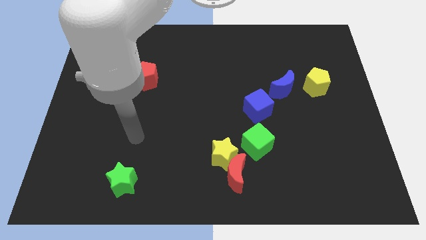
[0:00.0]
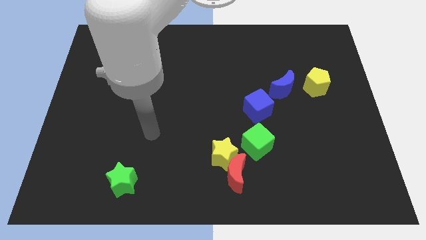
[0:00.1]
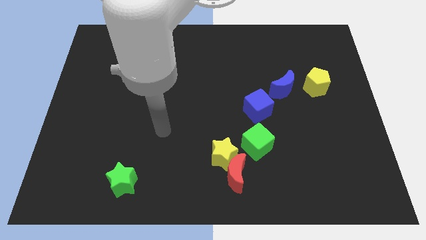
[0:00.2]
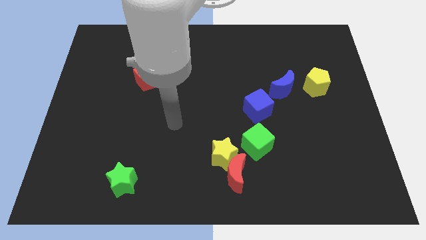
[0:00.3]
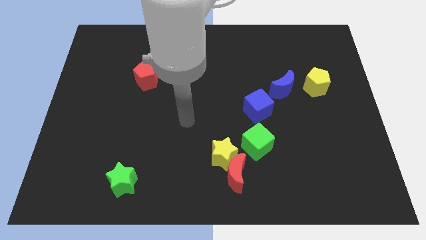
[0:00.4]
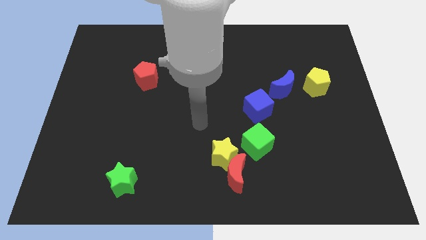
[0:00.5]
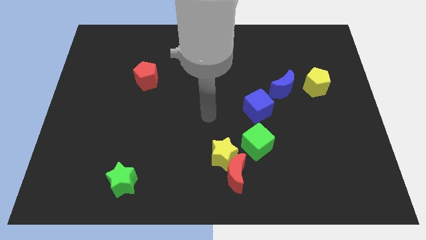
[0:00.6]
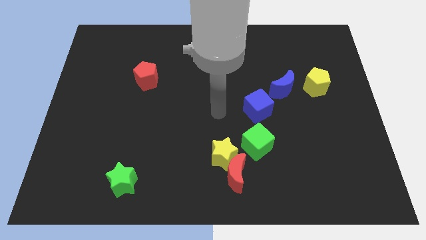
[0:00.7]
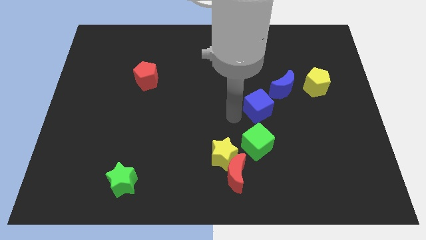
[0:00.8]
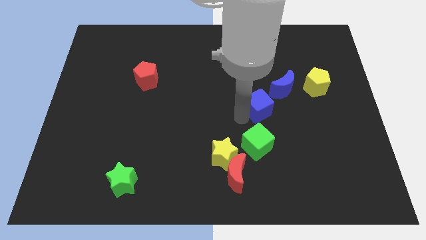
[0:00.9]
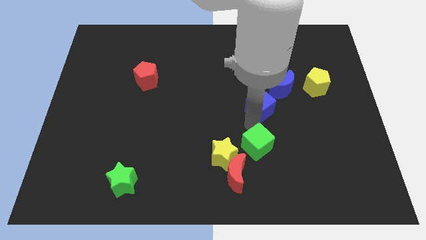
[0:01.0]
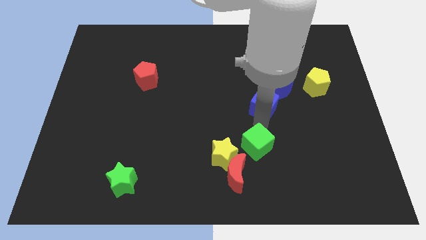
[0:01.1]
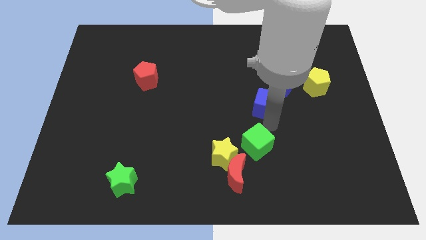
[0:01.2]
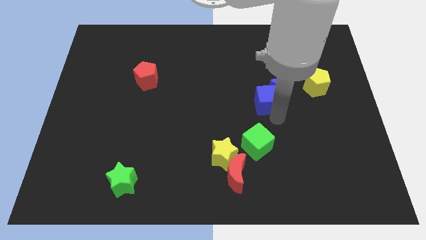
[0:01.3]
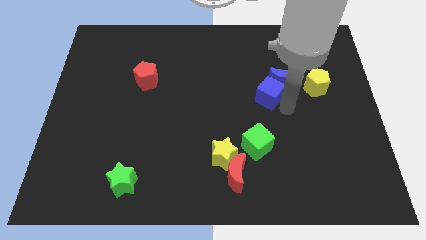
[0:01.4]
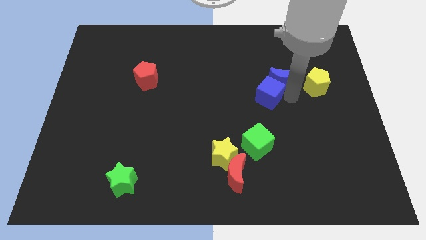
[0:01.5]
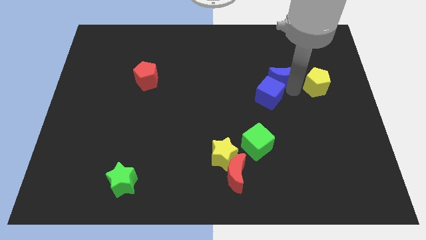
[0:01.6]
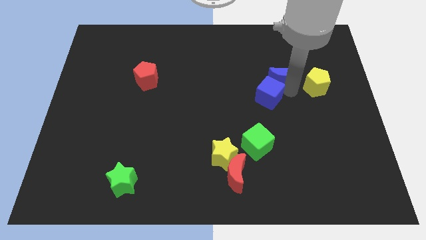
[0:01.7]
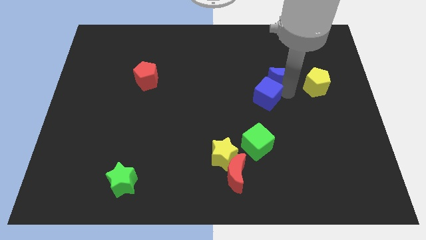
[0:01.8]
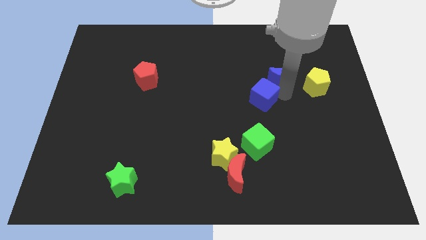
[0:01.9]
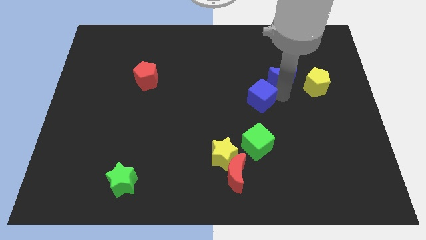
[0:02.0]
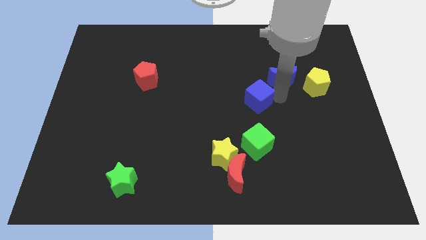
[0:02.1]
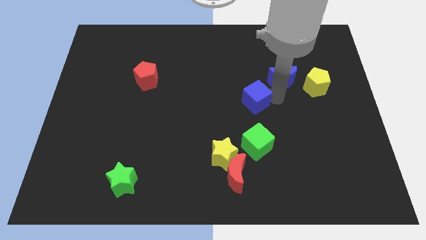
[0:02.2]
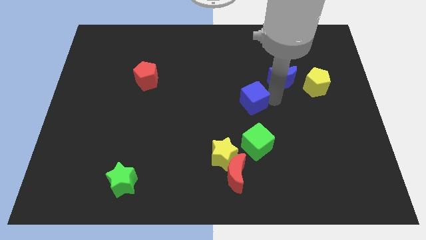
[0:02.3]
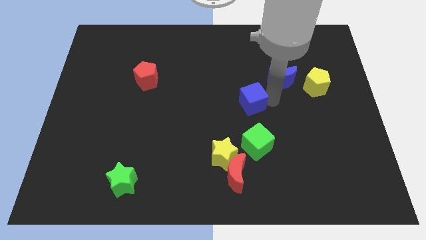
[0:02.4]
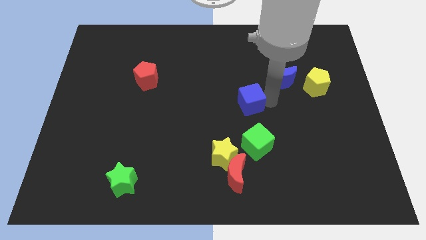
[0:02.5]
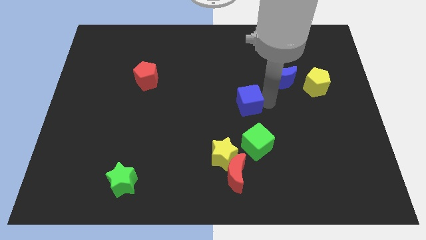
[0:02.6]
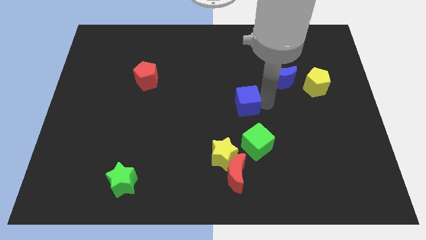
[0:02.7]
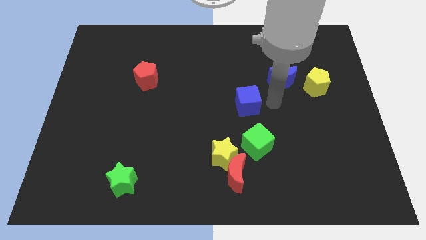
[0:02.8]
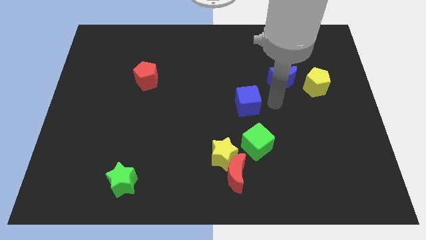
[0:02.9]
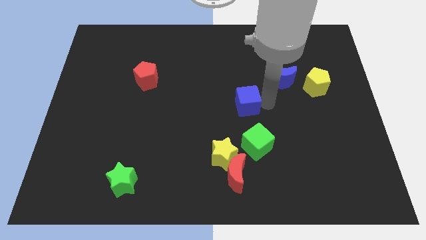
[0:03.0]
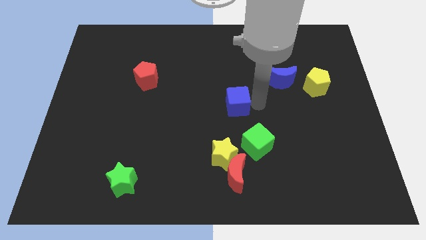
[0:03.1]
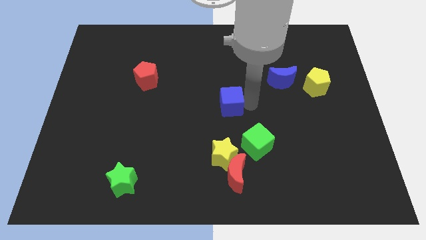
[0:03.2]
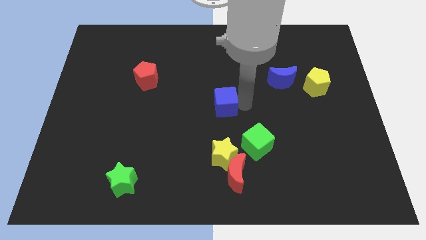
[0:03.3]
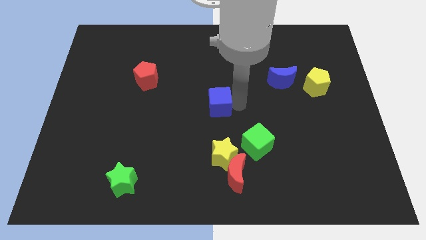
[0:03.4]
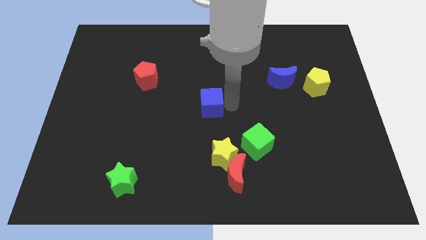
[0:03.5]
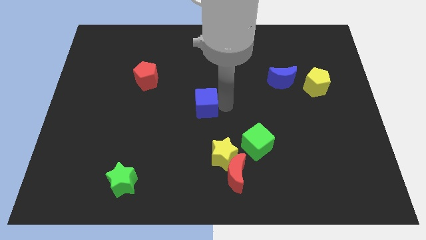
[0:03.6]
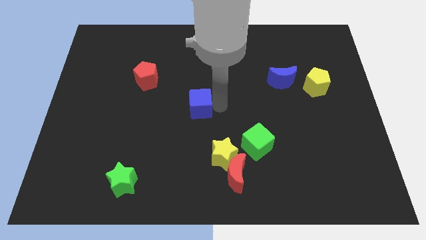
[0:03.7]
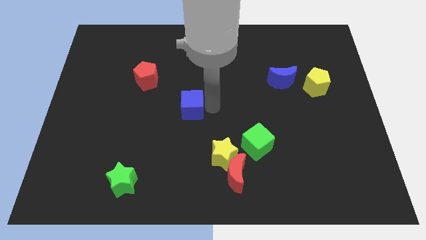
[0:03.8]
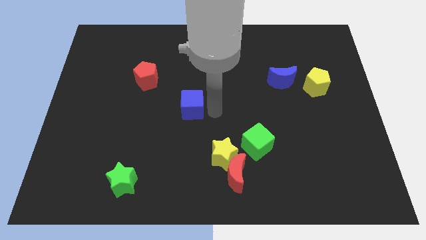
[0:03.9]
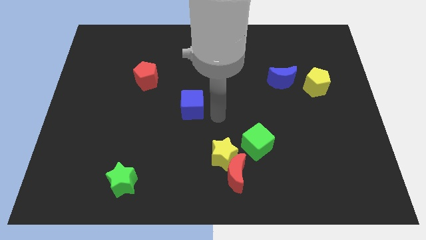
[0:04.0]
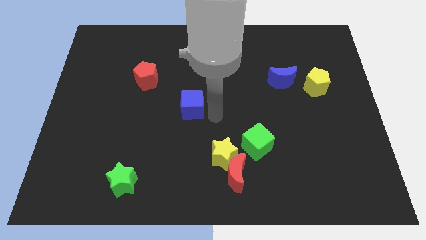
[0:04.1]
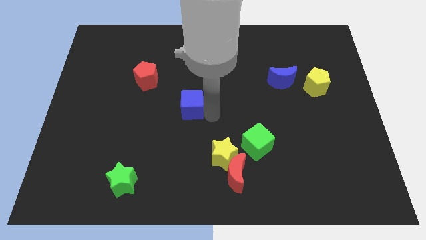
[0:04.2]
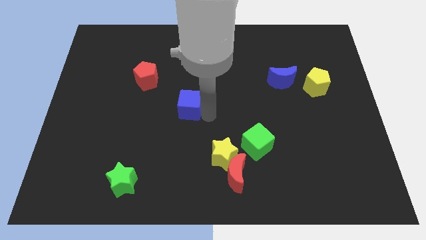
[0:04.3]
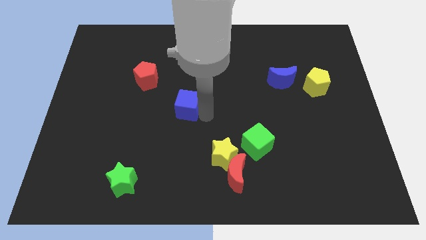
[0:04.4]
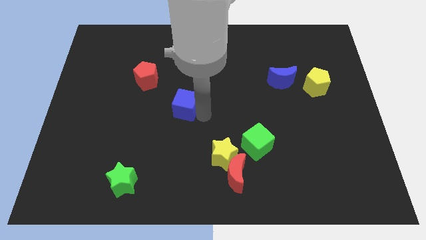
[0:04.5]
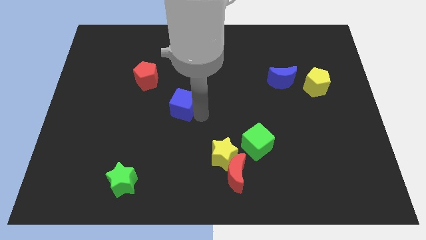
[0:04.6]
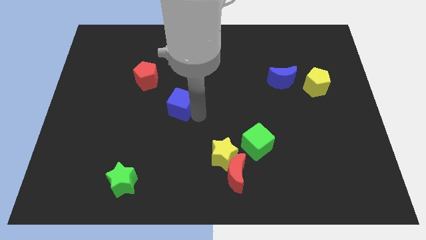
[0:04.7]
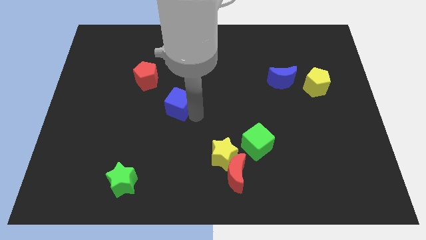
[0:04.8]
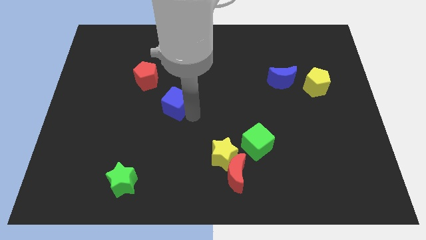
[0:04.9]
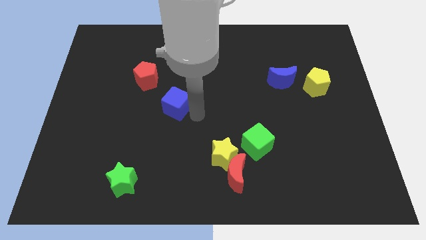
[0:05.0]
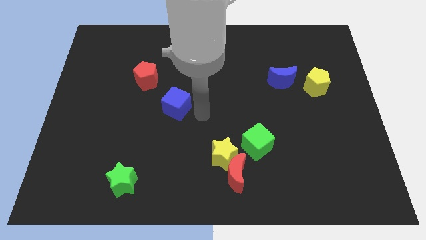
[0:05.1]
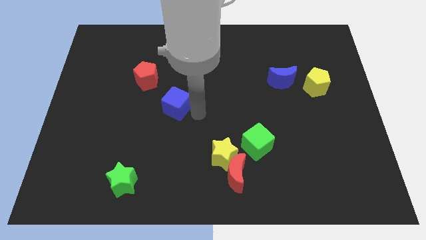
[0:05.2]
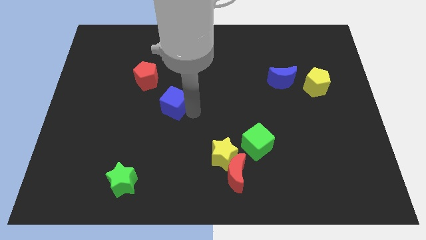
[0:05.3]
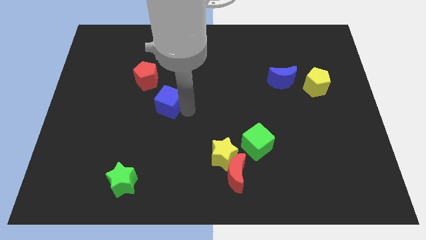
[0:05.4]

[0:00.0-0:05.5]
move the blue cube to the left

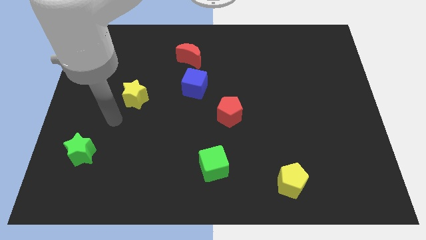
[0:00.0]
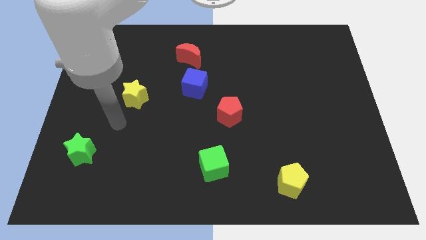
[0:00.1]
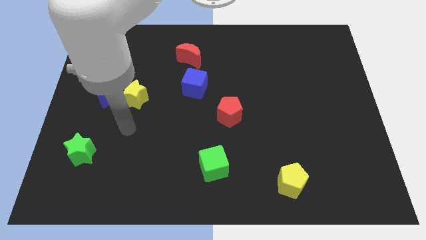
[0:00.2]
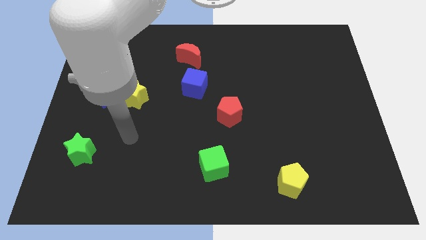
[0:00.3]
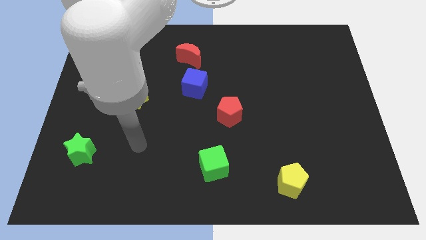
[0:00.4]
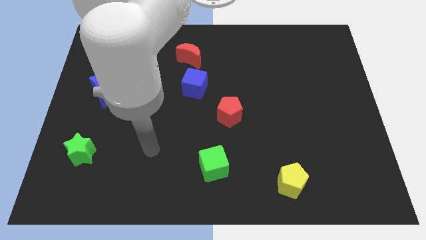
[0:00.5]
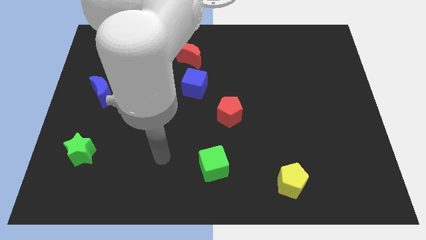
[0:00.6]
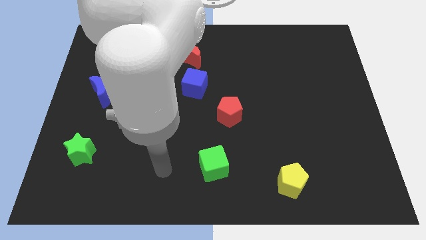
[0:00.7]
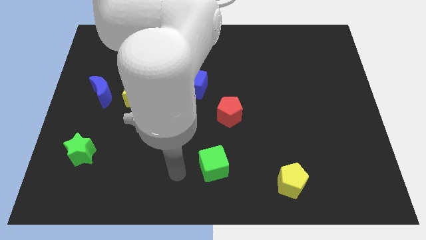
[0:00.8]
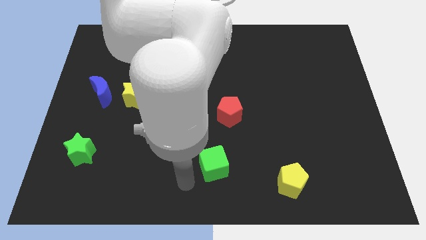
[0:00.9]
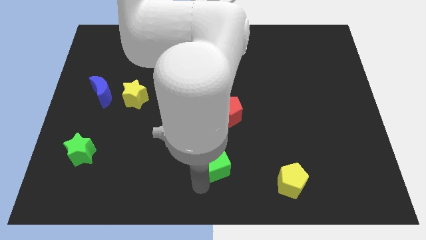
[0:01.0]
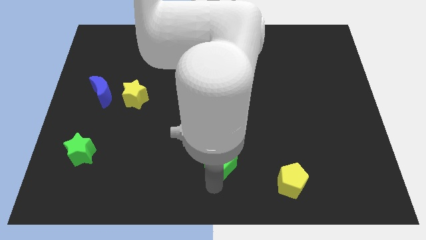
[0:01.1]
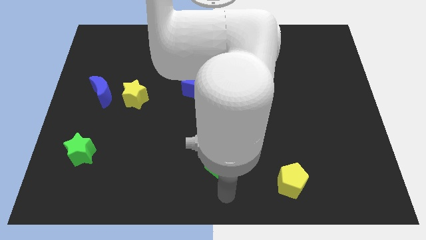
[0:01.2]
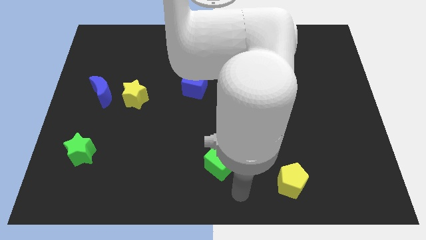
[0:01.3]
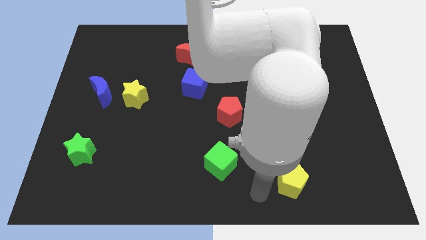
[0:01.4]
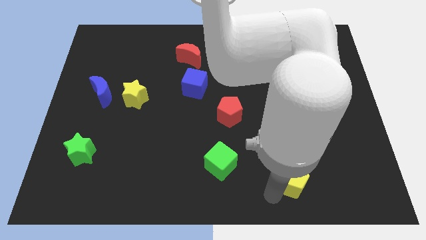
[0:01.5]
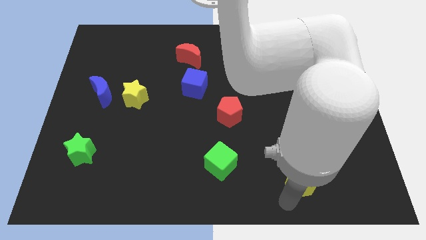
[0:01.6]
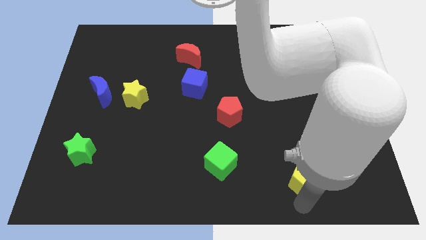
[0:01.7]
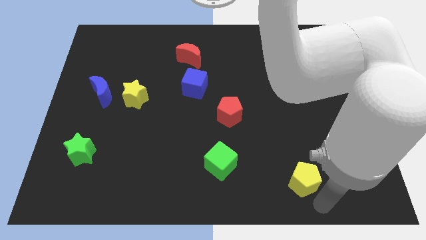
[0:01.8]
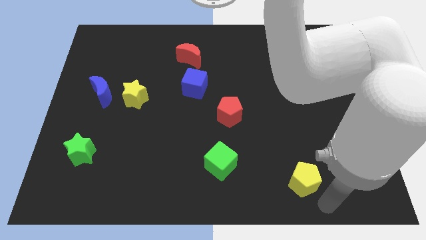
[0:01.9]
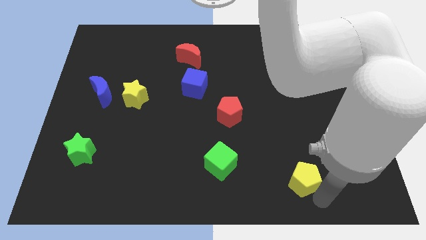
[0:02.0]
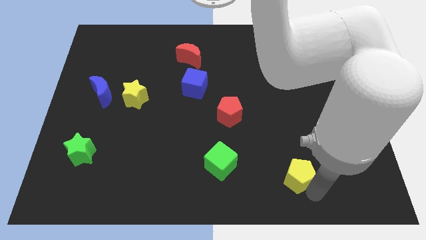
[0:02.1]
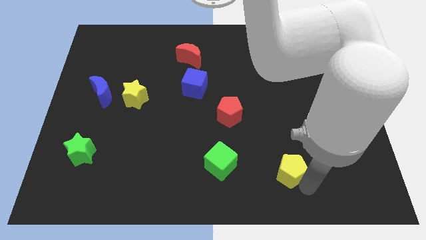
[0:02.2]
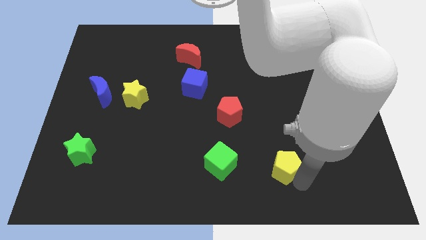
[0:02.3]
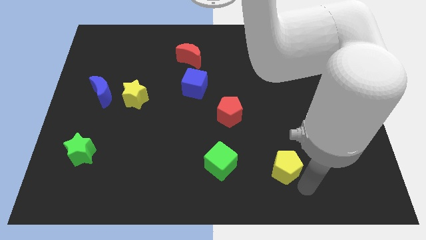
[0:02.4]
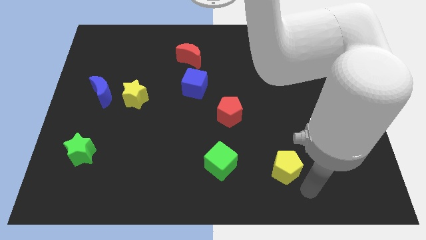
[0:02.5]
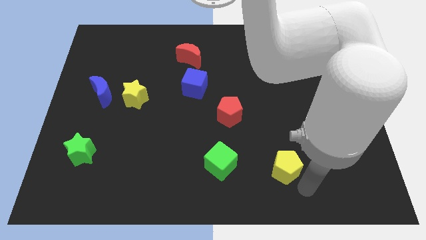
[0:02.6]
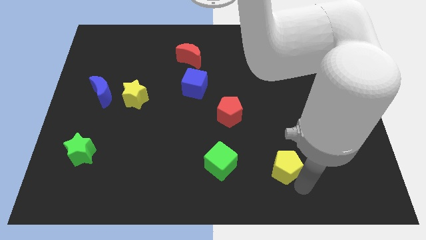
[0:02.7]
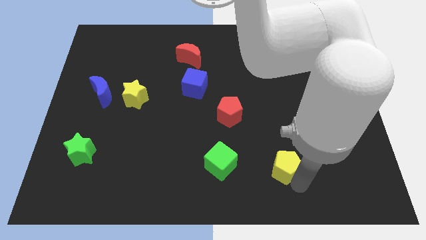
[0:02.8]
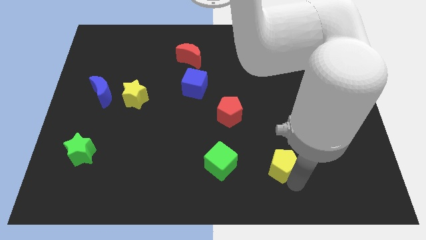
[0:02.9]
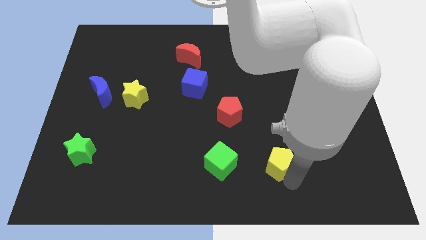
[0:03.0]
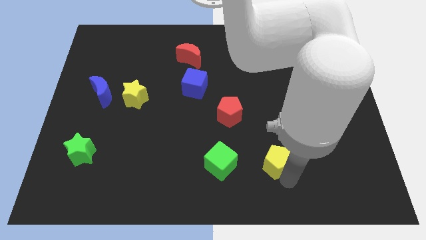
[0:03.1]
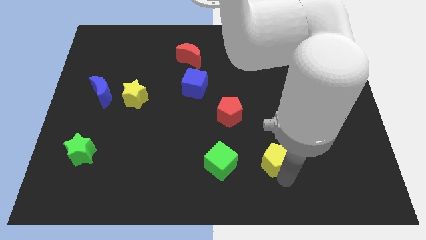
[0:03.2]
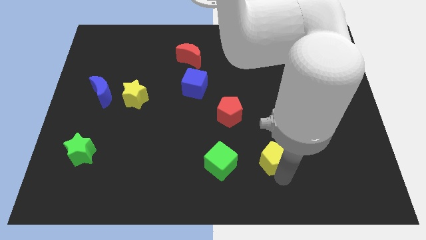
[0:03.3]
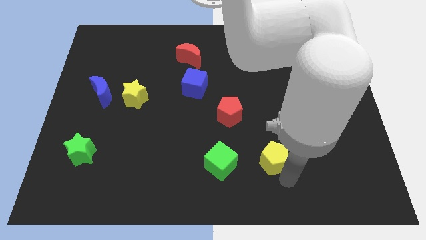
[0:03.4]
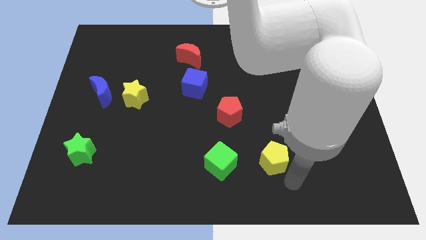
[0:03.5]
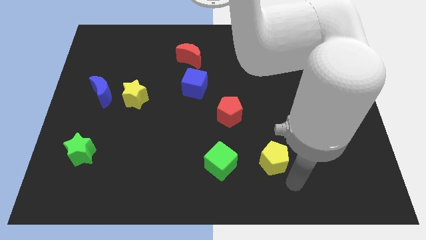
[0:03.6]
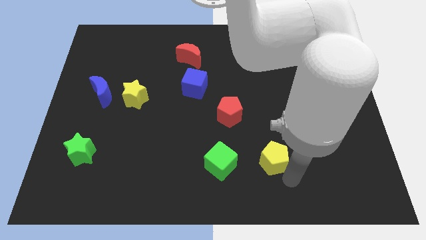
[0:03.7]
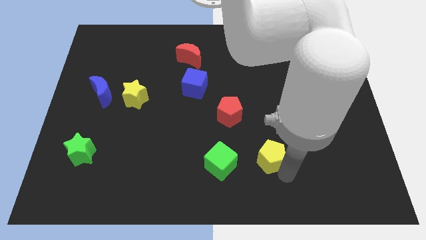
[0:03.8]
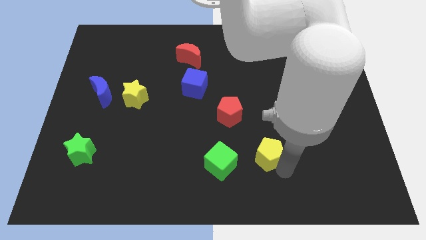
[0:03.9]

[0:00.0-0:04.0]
slightly move the yellow pentagon upwards and to the left
